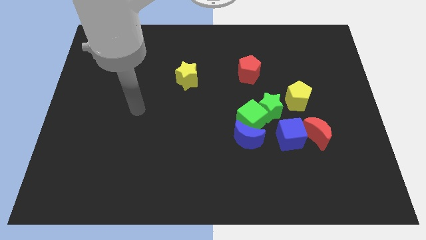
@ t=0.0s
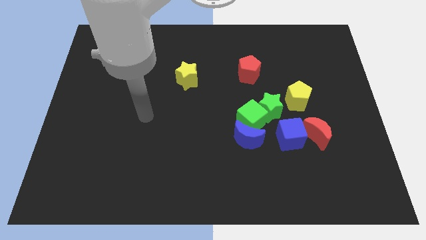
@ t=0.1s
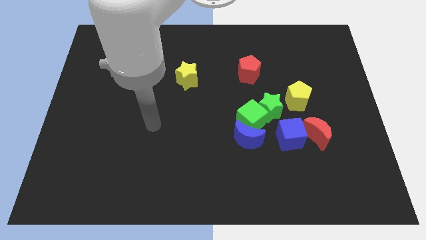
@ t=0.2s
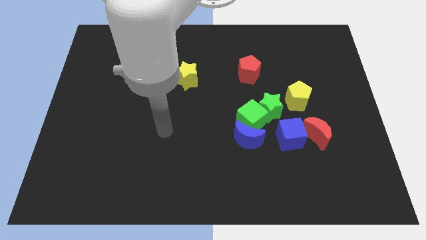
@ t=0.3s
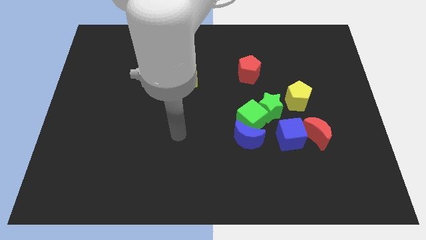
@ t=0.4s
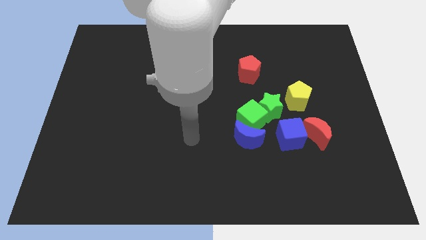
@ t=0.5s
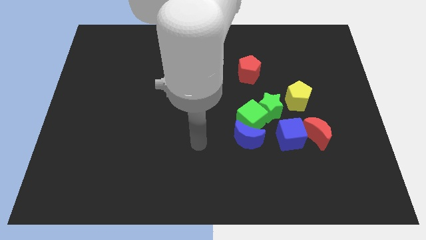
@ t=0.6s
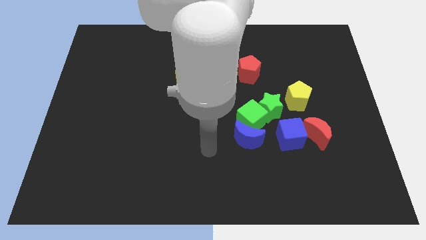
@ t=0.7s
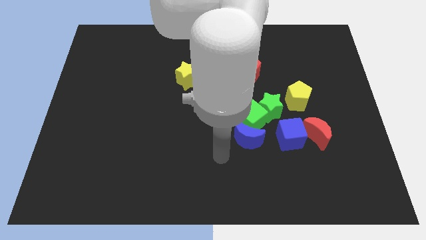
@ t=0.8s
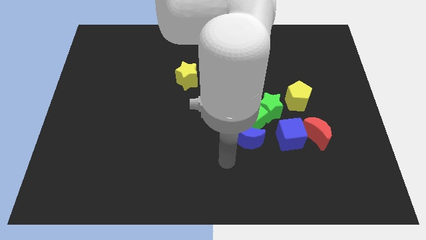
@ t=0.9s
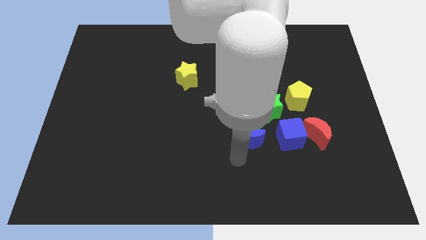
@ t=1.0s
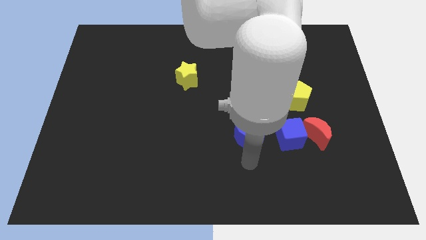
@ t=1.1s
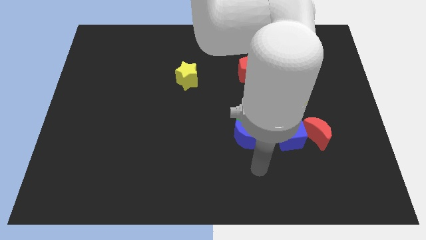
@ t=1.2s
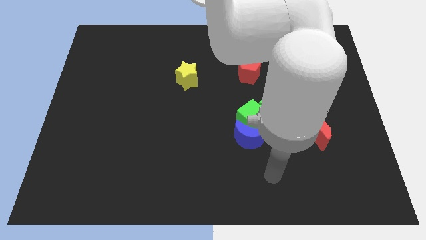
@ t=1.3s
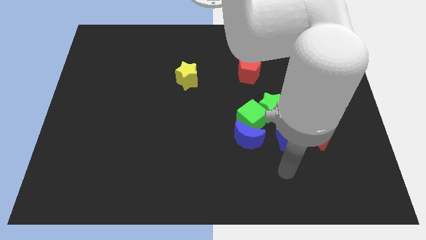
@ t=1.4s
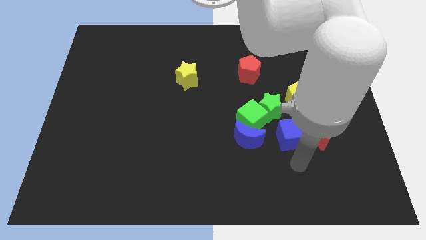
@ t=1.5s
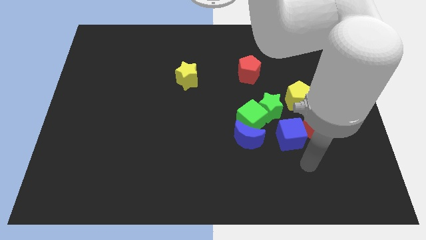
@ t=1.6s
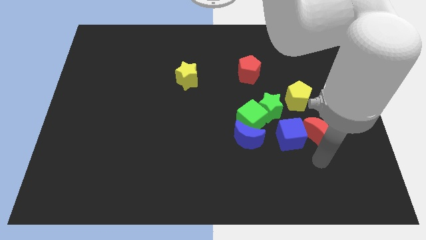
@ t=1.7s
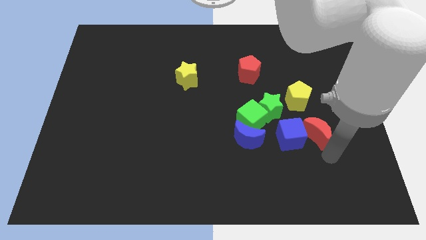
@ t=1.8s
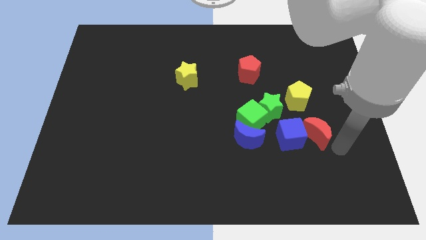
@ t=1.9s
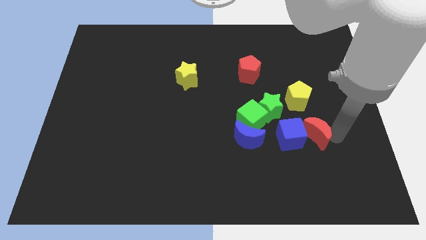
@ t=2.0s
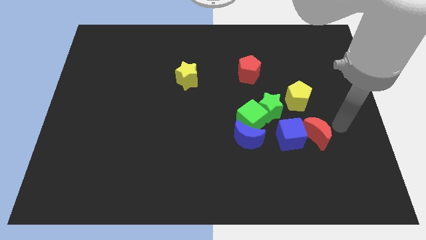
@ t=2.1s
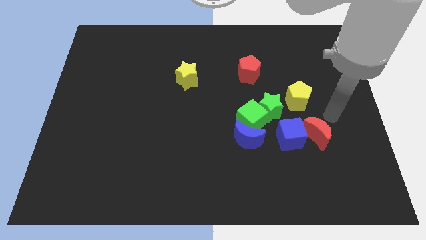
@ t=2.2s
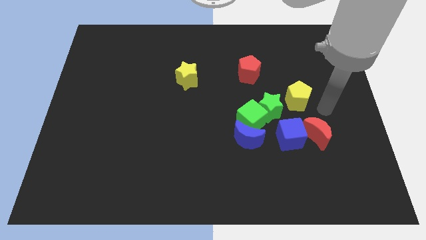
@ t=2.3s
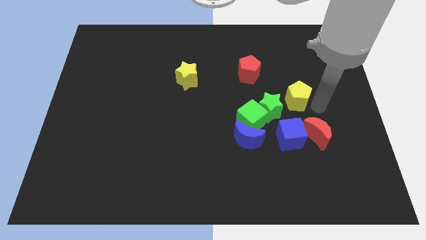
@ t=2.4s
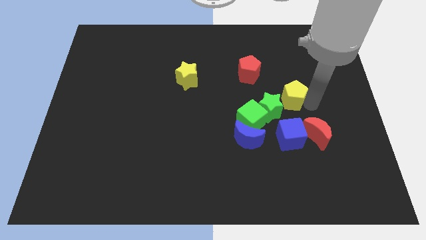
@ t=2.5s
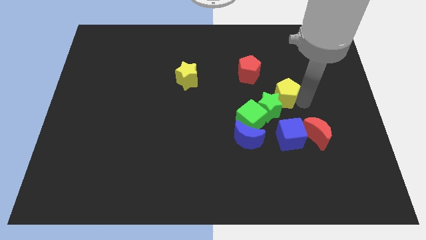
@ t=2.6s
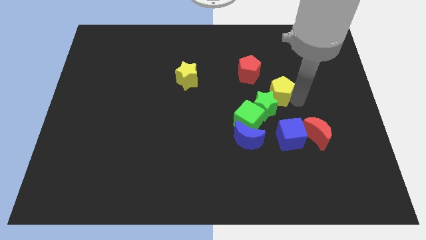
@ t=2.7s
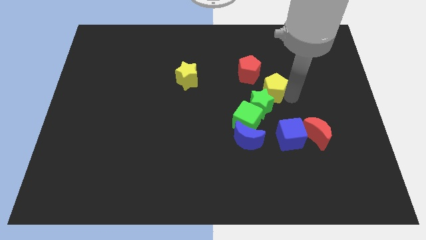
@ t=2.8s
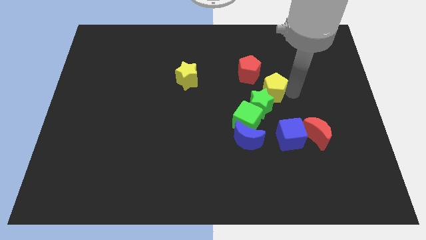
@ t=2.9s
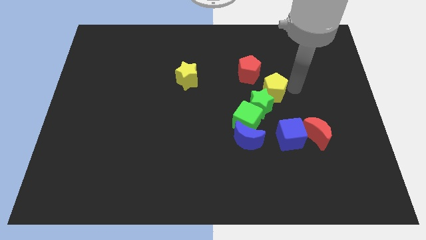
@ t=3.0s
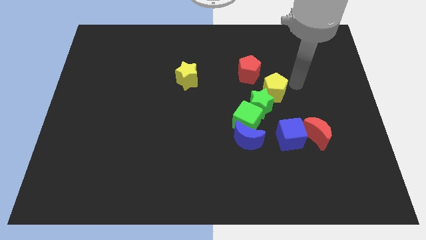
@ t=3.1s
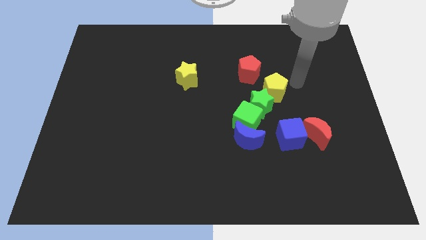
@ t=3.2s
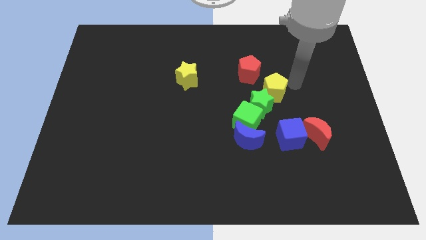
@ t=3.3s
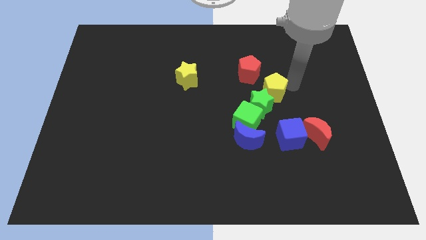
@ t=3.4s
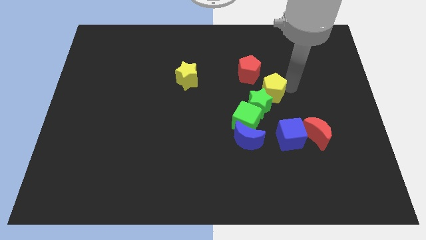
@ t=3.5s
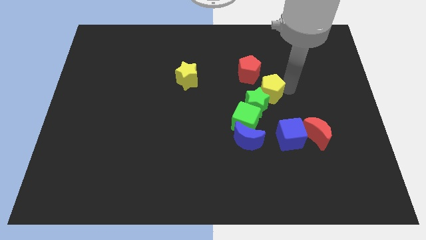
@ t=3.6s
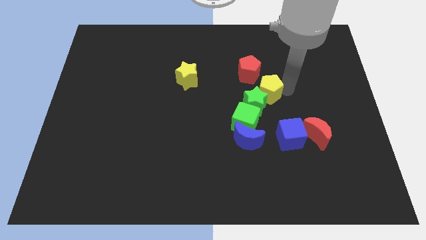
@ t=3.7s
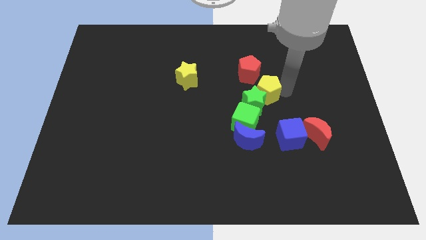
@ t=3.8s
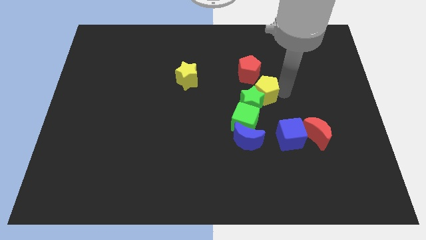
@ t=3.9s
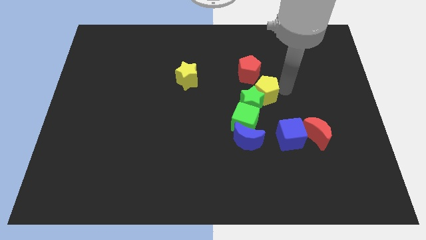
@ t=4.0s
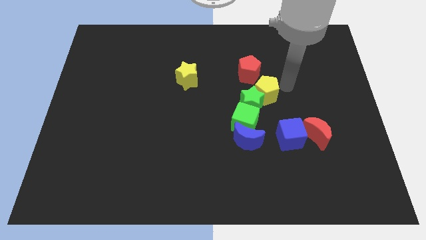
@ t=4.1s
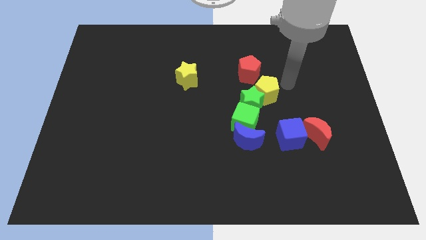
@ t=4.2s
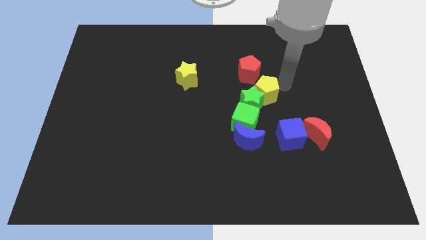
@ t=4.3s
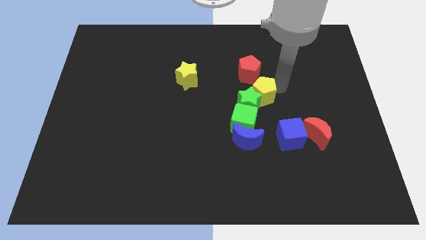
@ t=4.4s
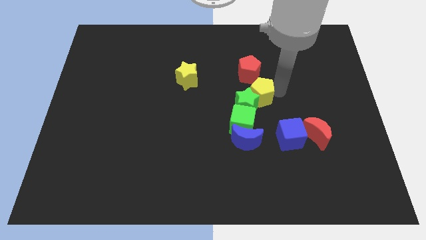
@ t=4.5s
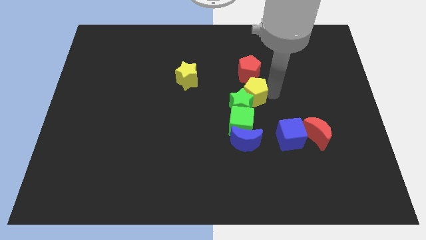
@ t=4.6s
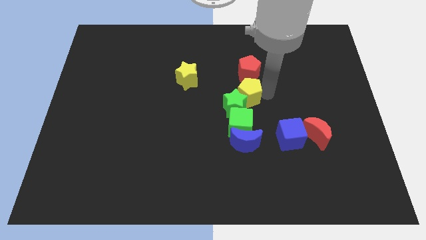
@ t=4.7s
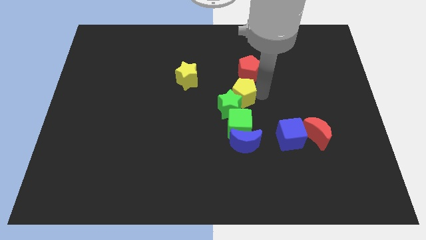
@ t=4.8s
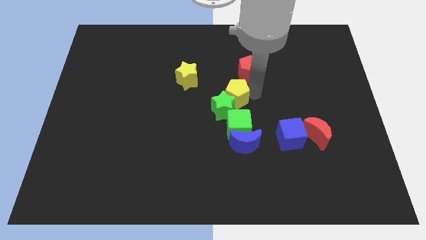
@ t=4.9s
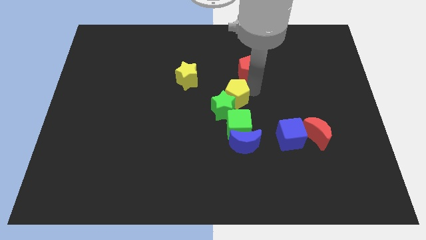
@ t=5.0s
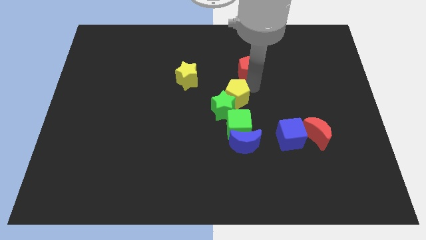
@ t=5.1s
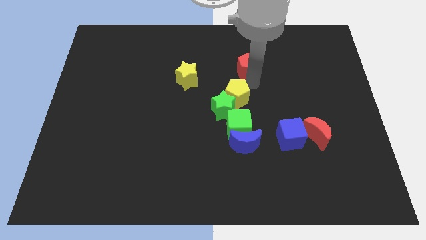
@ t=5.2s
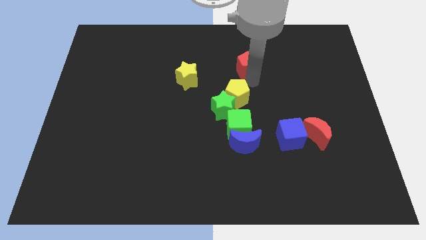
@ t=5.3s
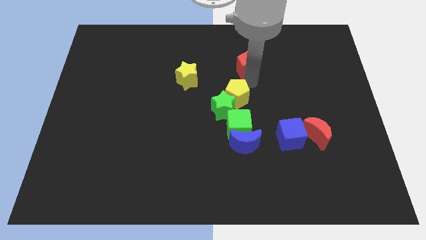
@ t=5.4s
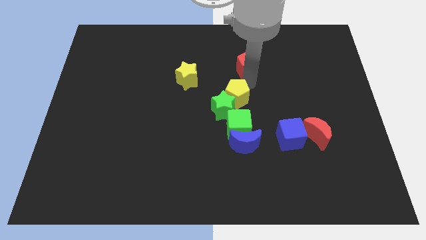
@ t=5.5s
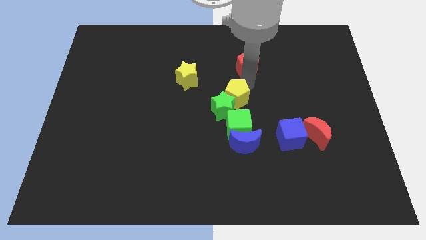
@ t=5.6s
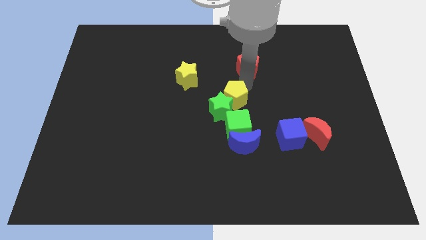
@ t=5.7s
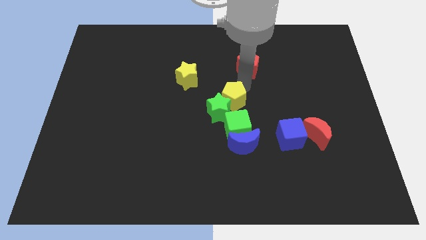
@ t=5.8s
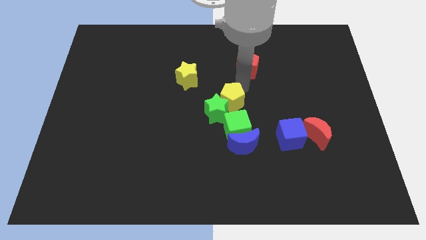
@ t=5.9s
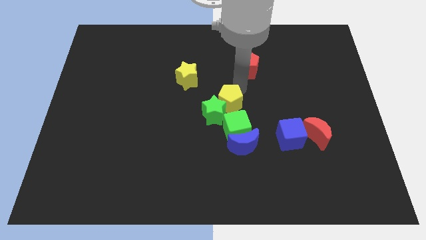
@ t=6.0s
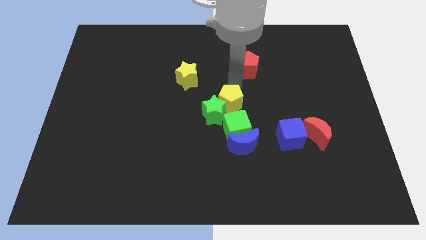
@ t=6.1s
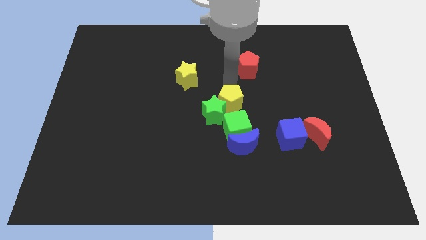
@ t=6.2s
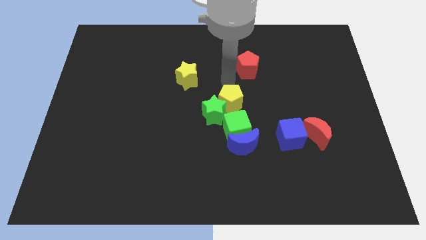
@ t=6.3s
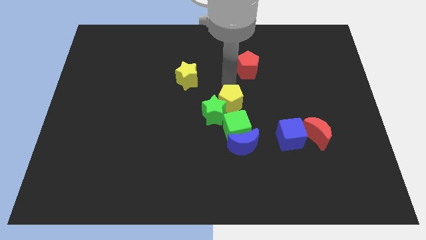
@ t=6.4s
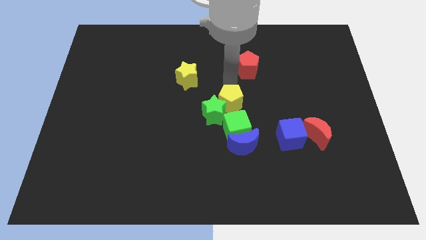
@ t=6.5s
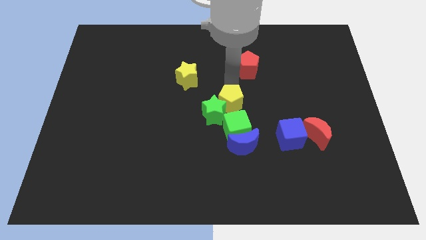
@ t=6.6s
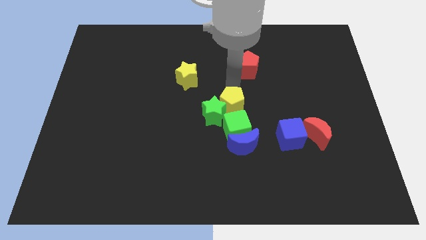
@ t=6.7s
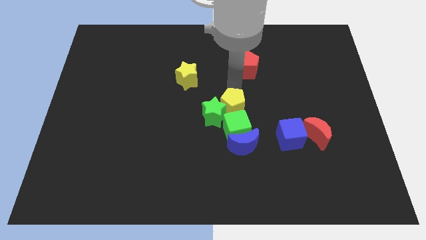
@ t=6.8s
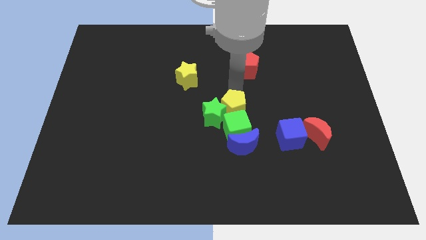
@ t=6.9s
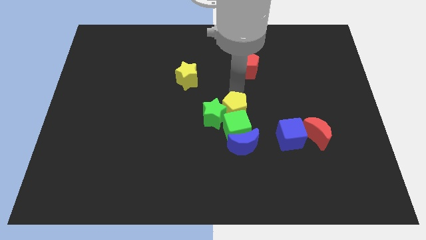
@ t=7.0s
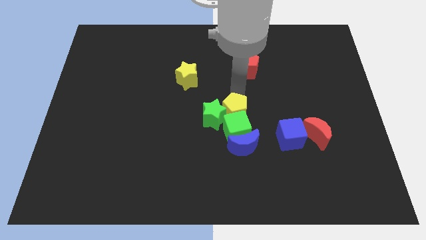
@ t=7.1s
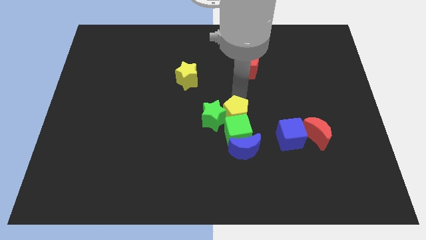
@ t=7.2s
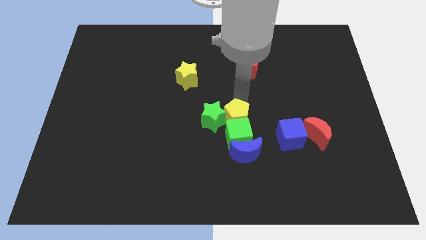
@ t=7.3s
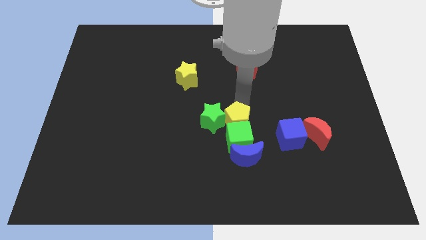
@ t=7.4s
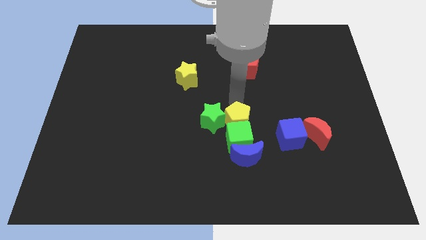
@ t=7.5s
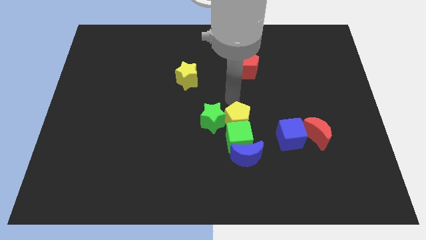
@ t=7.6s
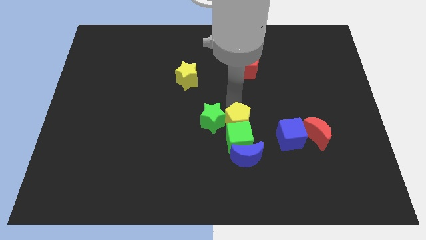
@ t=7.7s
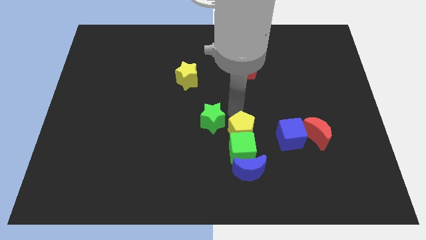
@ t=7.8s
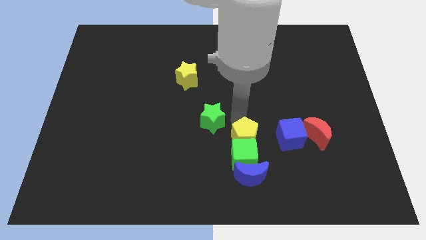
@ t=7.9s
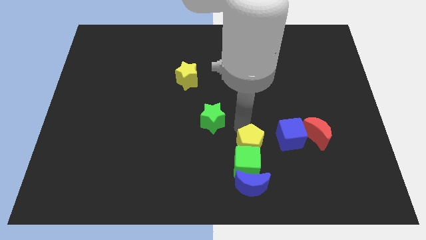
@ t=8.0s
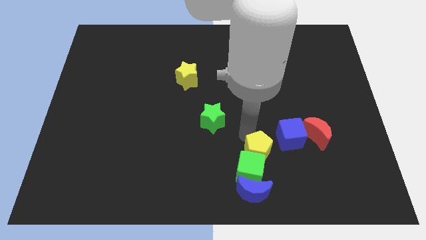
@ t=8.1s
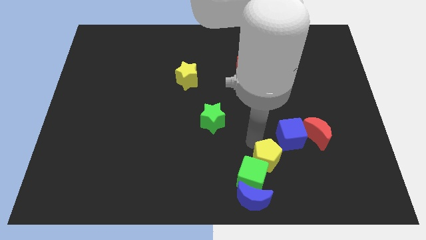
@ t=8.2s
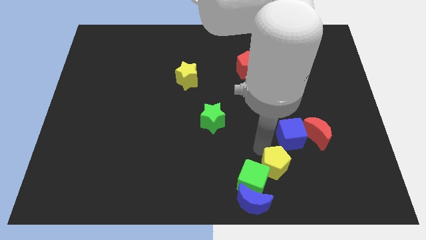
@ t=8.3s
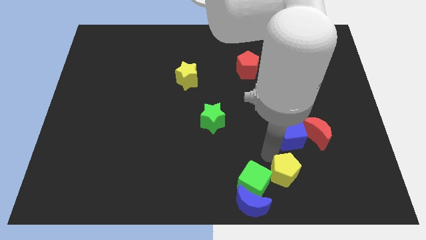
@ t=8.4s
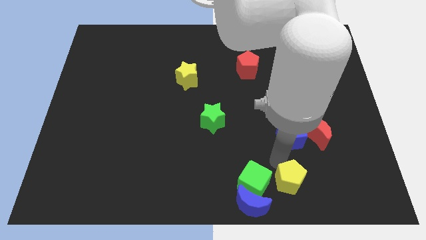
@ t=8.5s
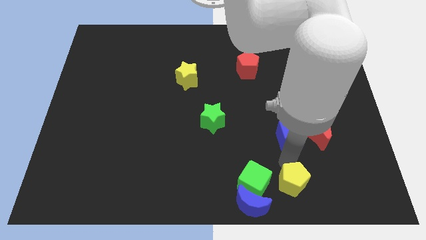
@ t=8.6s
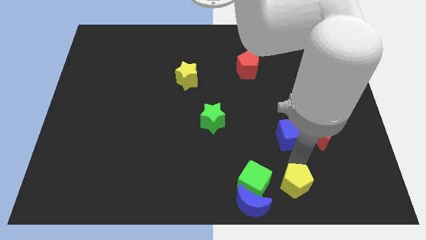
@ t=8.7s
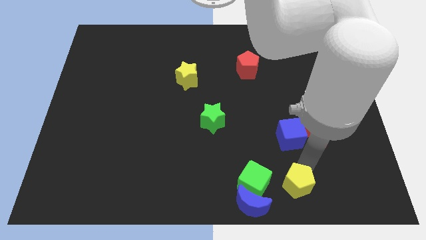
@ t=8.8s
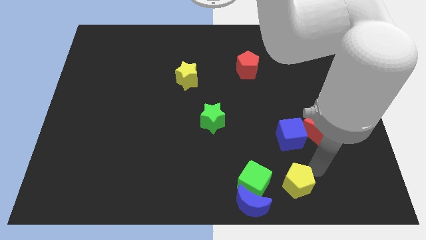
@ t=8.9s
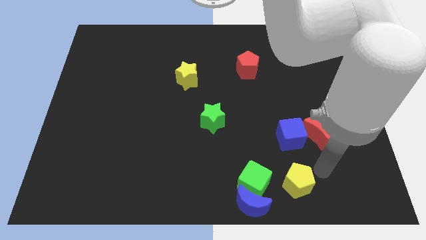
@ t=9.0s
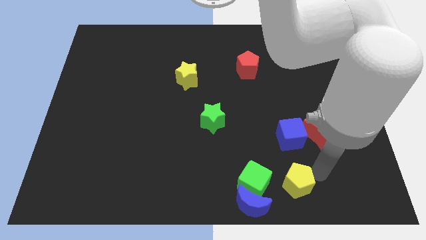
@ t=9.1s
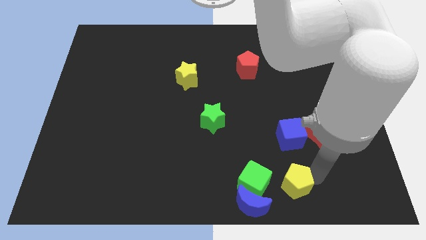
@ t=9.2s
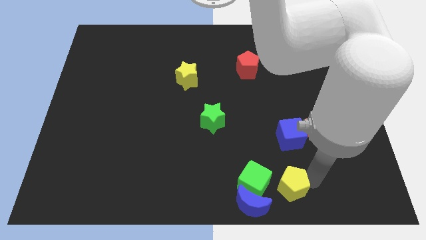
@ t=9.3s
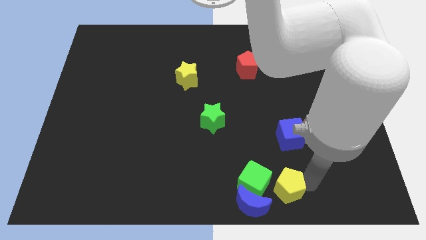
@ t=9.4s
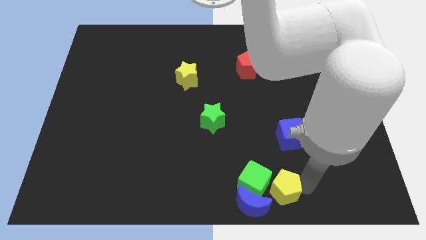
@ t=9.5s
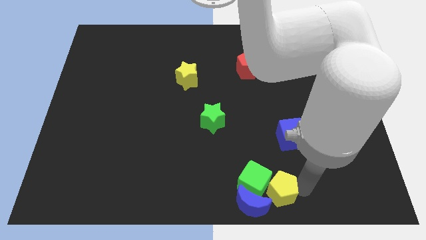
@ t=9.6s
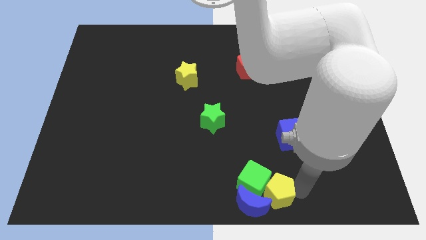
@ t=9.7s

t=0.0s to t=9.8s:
slide the yellow pentagon towards the blue moon
